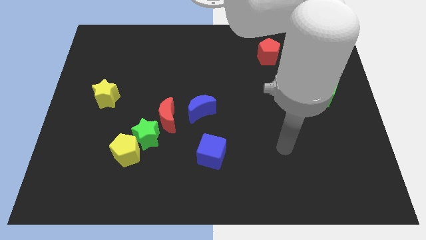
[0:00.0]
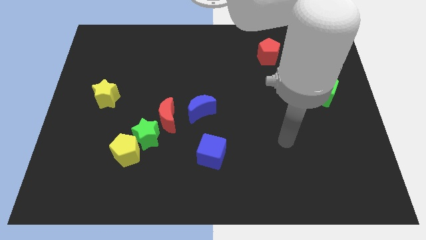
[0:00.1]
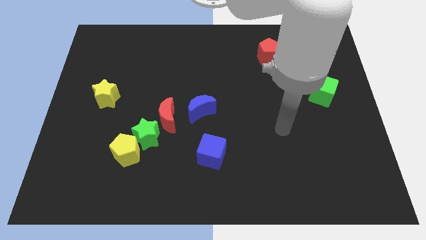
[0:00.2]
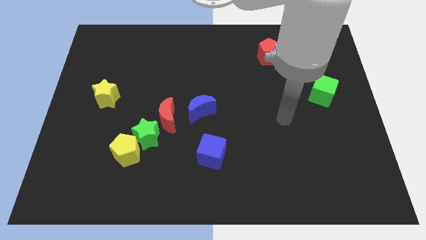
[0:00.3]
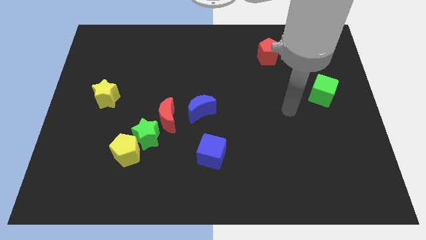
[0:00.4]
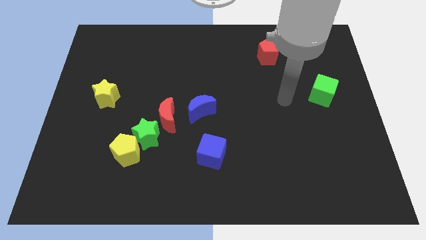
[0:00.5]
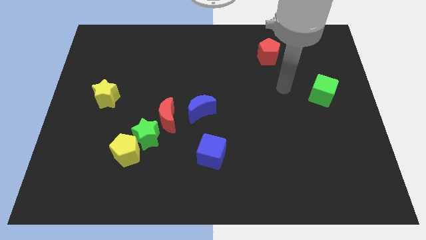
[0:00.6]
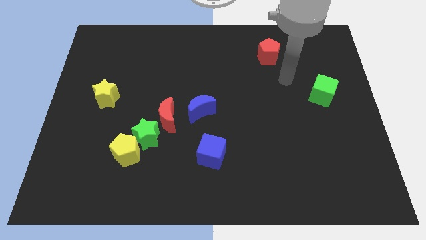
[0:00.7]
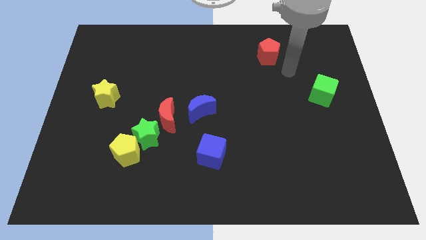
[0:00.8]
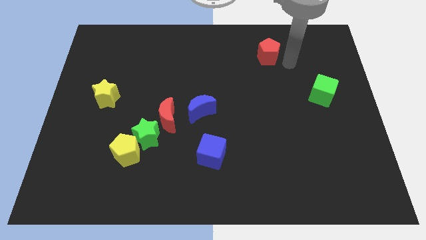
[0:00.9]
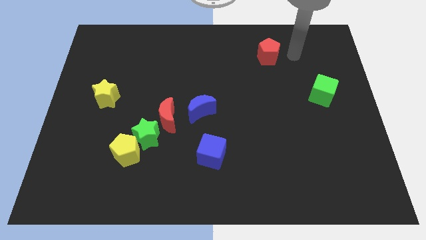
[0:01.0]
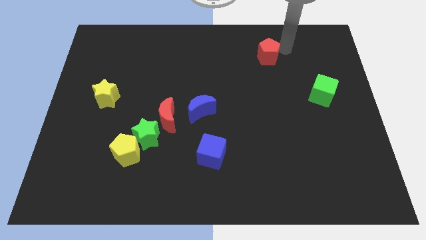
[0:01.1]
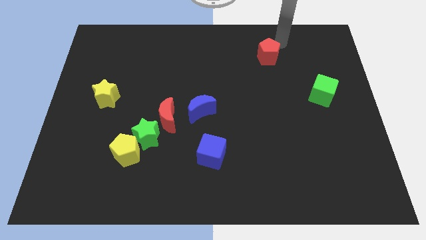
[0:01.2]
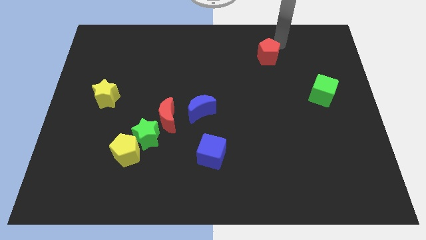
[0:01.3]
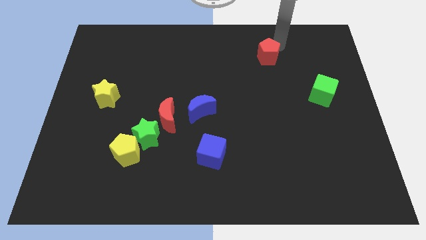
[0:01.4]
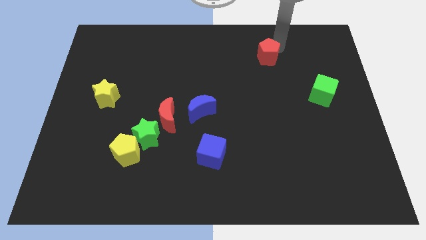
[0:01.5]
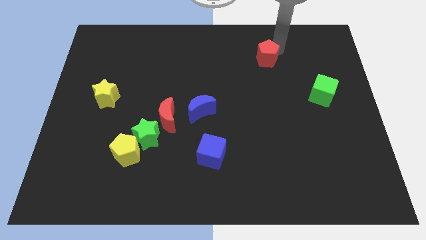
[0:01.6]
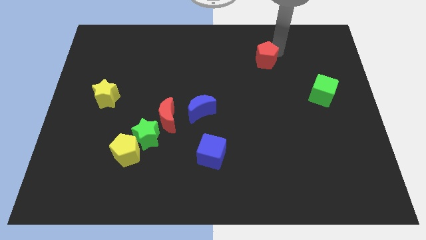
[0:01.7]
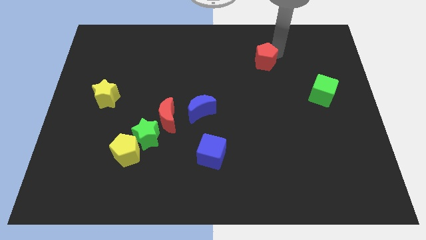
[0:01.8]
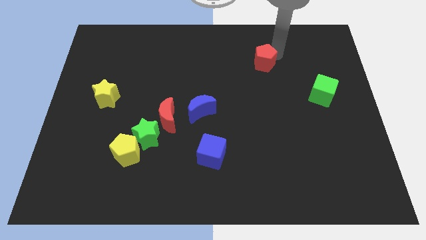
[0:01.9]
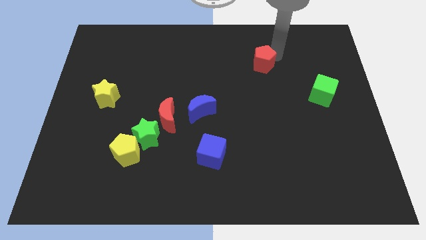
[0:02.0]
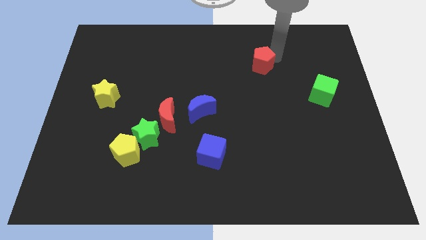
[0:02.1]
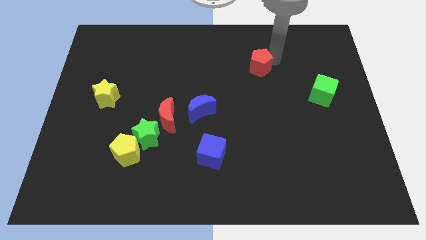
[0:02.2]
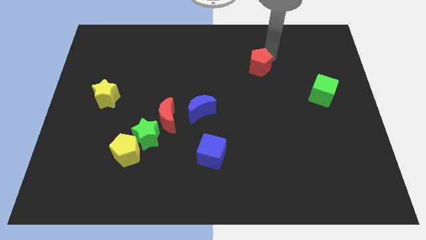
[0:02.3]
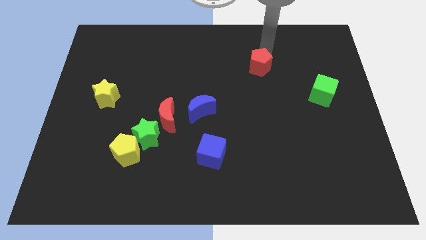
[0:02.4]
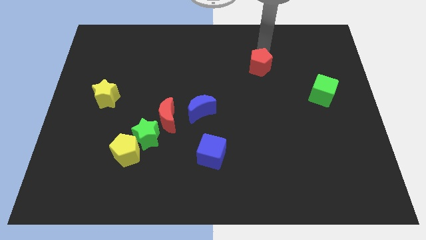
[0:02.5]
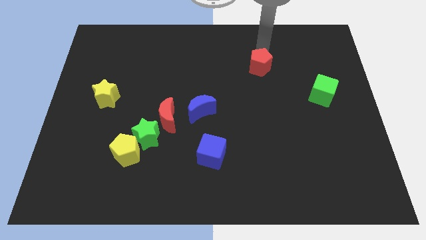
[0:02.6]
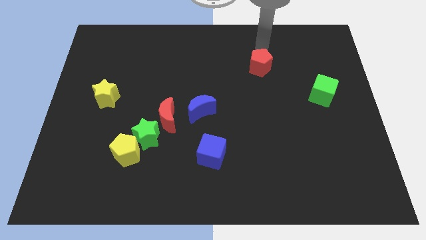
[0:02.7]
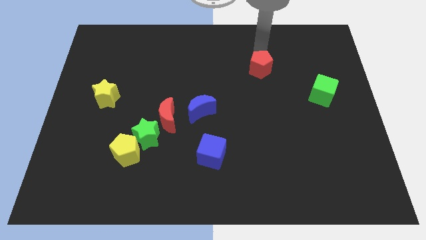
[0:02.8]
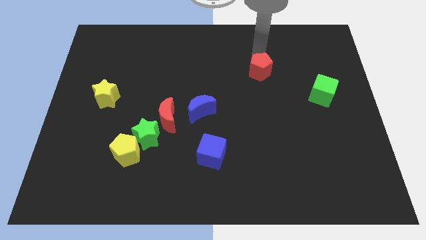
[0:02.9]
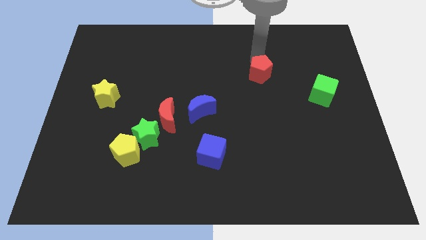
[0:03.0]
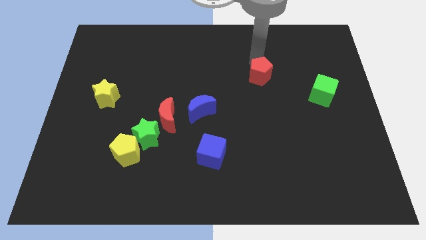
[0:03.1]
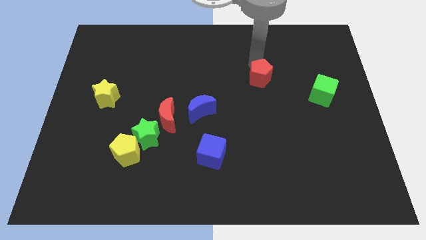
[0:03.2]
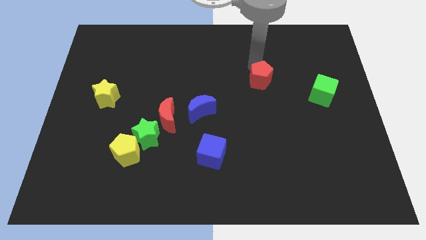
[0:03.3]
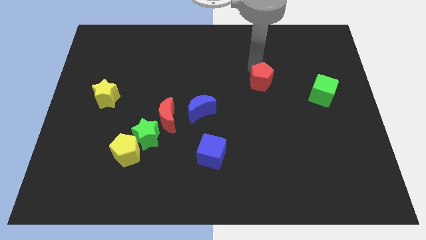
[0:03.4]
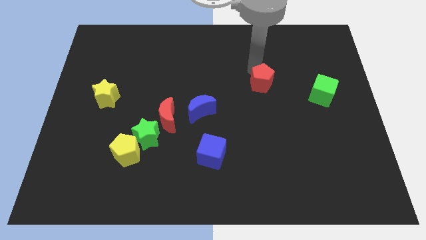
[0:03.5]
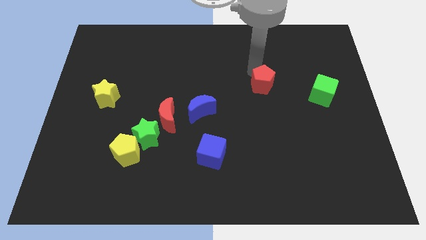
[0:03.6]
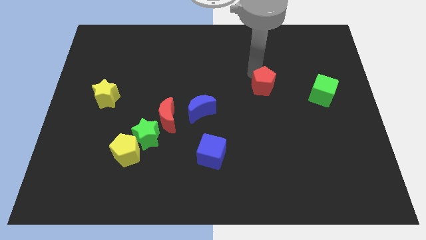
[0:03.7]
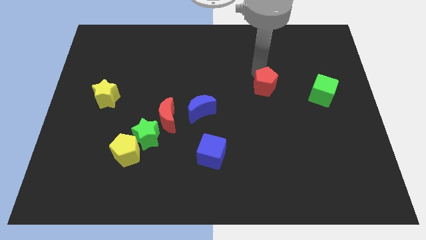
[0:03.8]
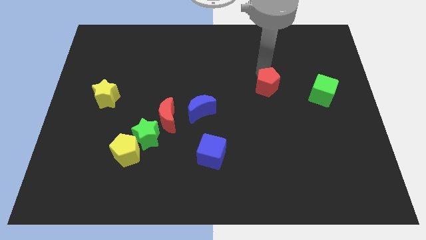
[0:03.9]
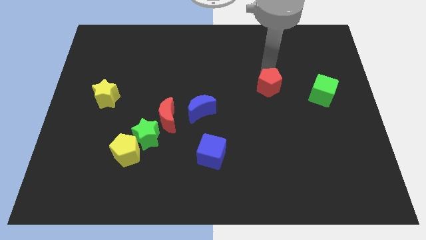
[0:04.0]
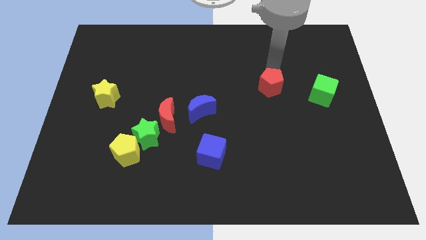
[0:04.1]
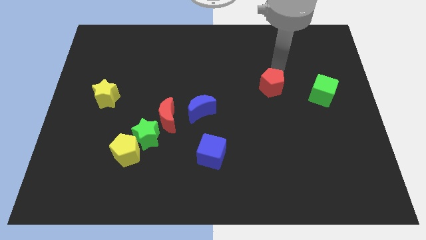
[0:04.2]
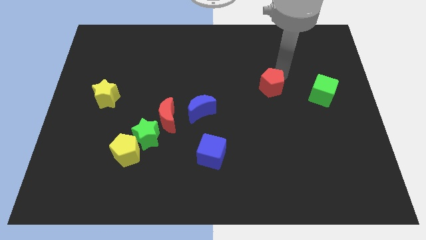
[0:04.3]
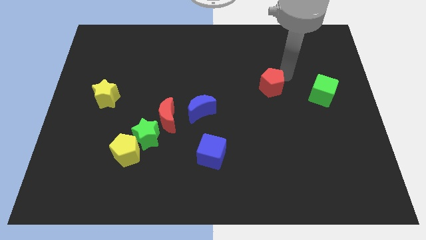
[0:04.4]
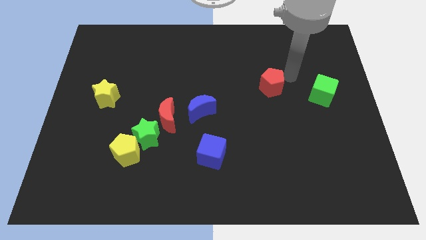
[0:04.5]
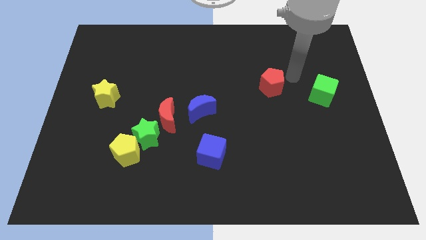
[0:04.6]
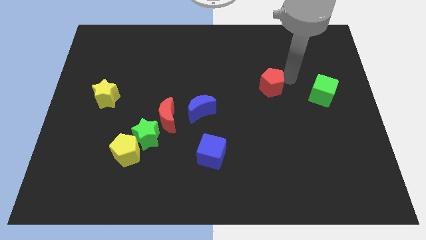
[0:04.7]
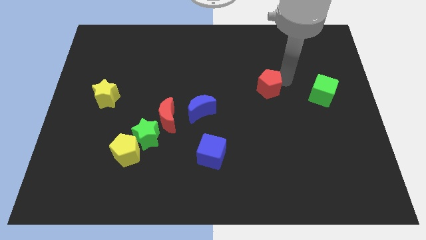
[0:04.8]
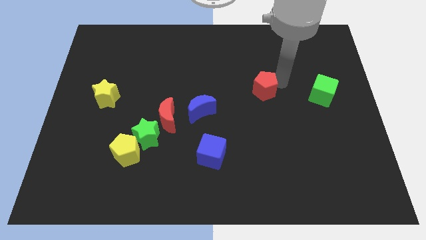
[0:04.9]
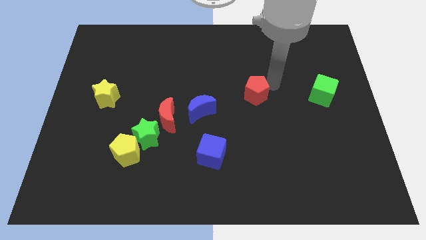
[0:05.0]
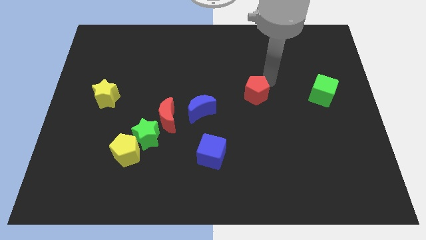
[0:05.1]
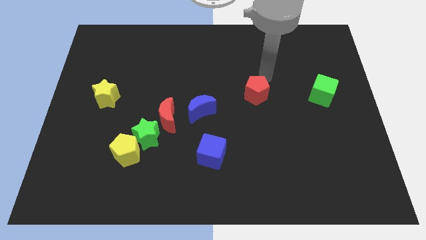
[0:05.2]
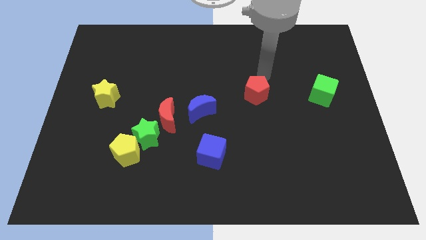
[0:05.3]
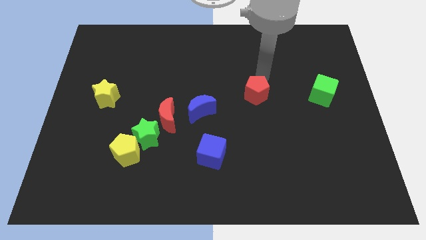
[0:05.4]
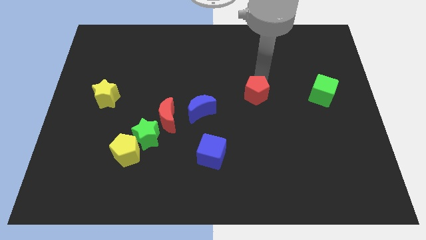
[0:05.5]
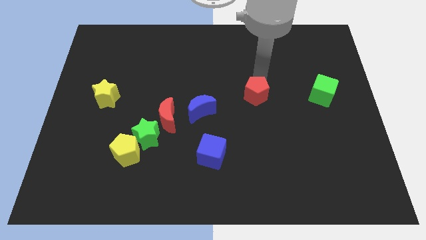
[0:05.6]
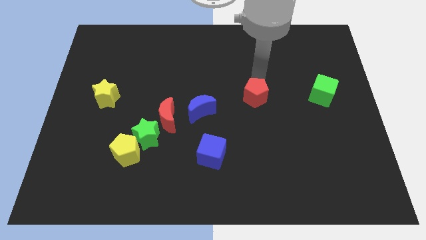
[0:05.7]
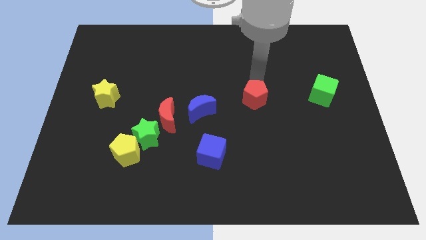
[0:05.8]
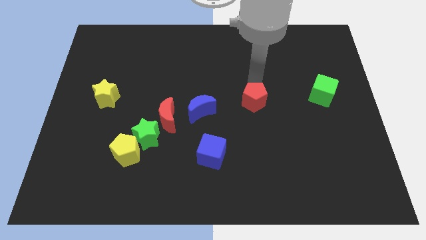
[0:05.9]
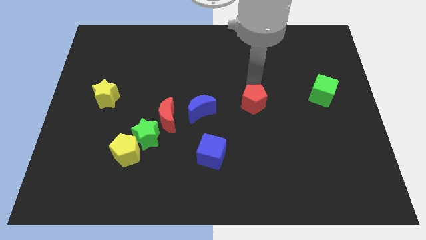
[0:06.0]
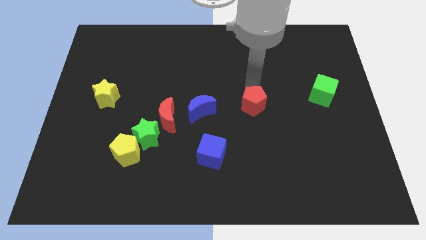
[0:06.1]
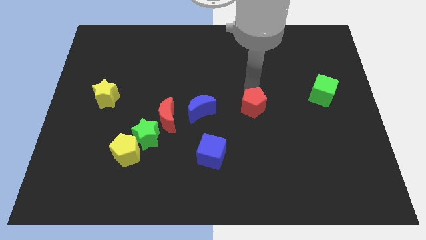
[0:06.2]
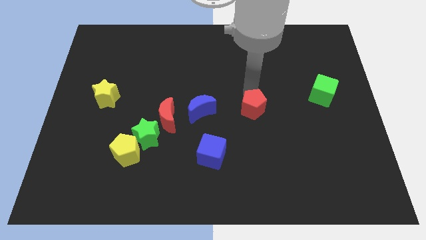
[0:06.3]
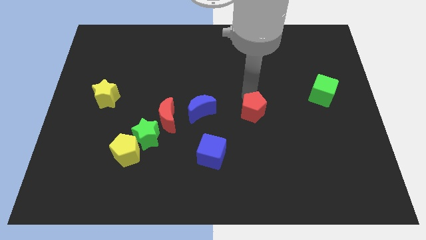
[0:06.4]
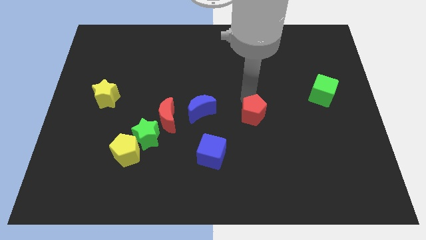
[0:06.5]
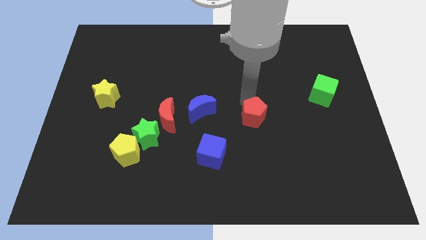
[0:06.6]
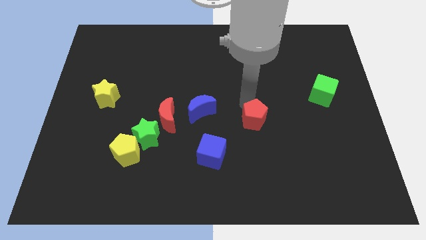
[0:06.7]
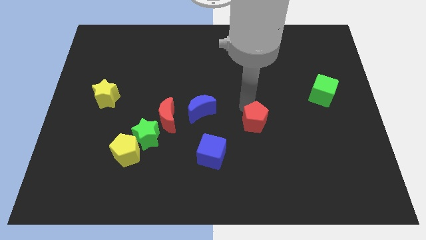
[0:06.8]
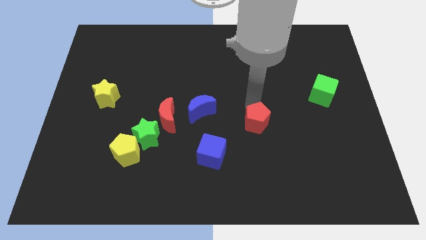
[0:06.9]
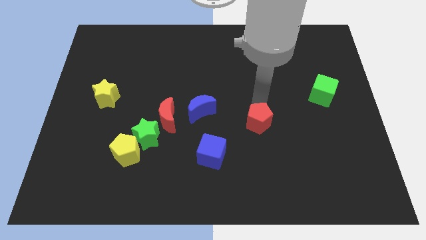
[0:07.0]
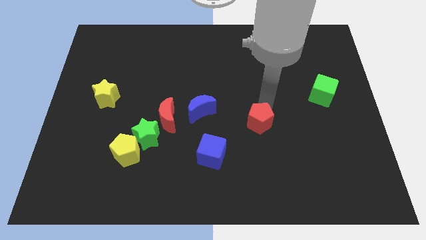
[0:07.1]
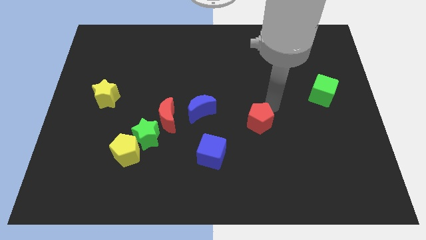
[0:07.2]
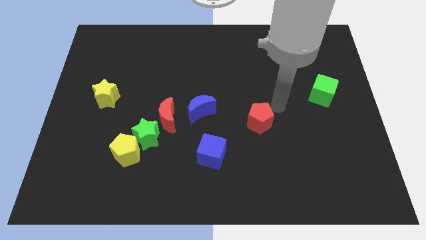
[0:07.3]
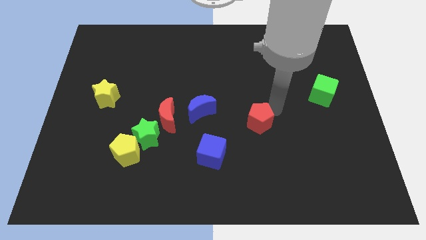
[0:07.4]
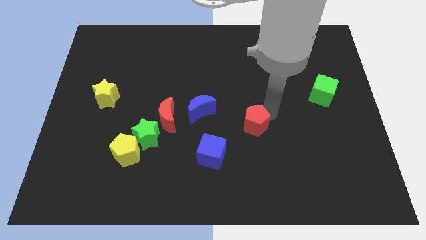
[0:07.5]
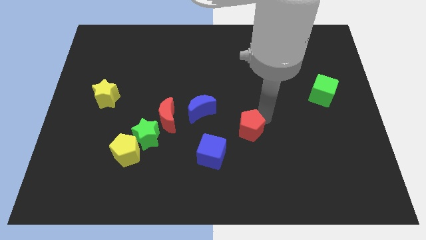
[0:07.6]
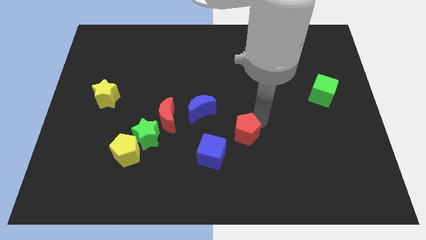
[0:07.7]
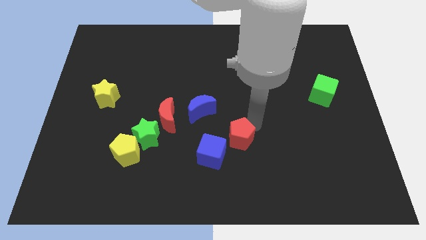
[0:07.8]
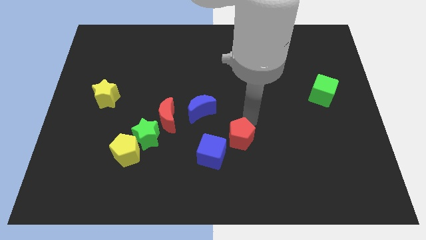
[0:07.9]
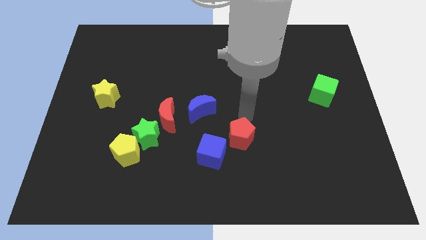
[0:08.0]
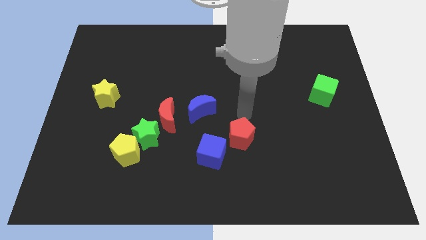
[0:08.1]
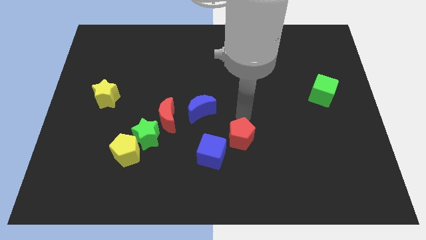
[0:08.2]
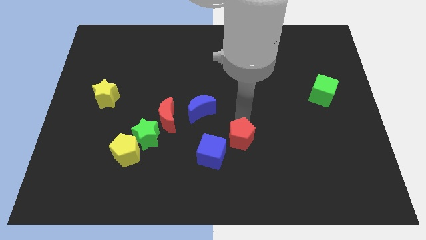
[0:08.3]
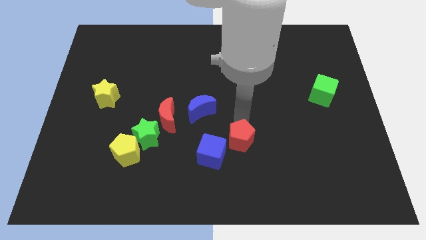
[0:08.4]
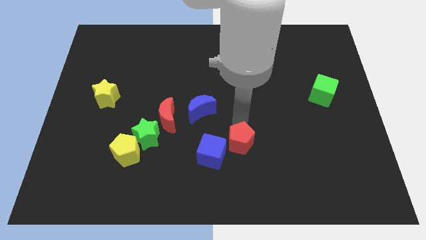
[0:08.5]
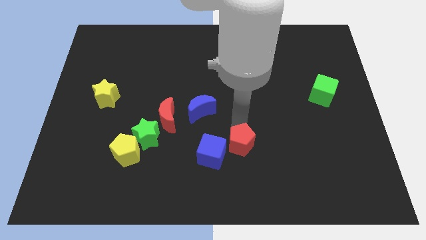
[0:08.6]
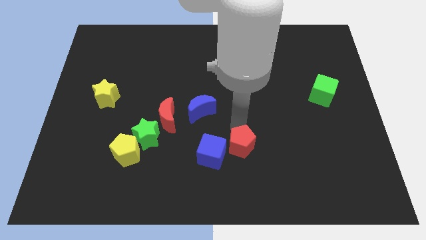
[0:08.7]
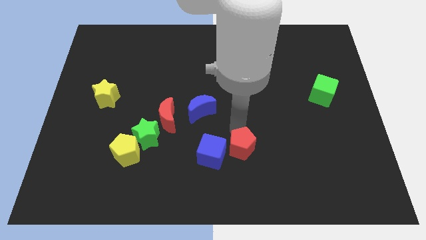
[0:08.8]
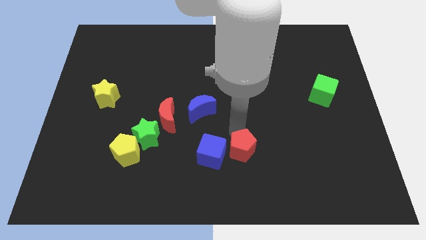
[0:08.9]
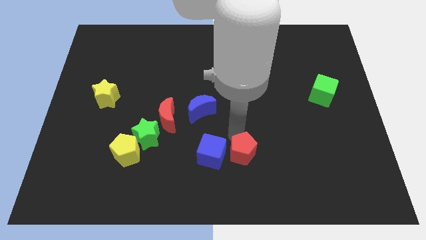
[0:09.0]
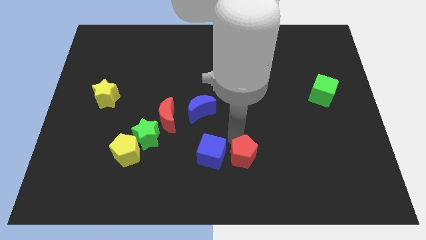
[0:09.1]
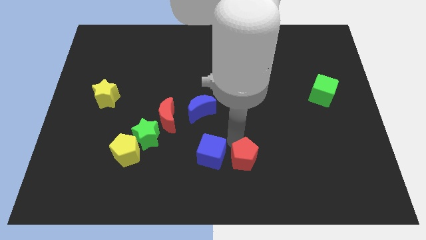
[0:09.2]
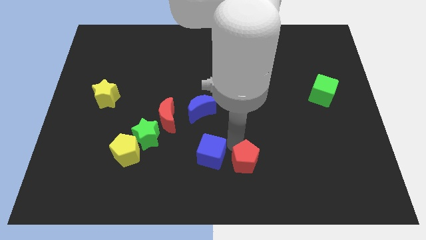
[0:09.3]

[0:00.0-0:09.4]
push the red pentagon to the bottom side
